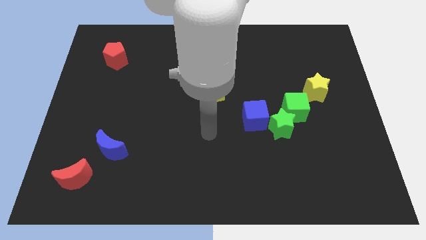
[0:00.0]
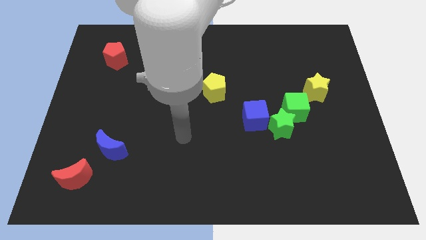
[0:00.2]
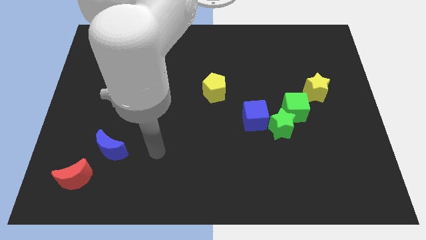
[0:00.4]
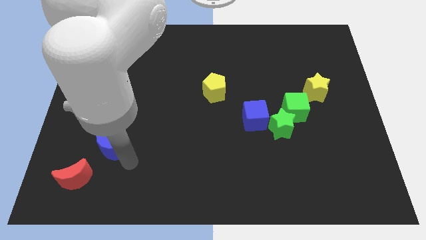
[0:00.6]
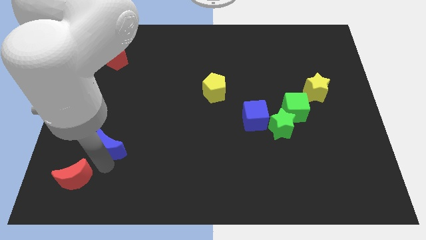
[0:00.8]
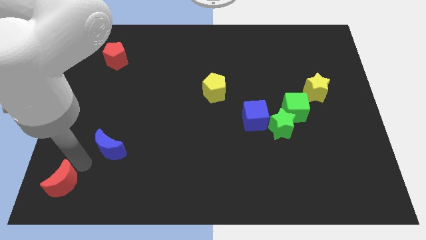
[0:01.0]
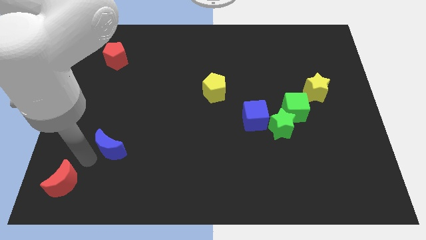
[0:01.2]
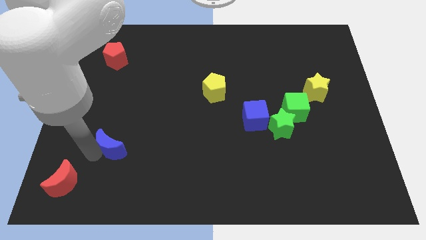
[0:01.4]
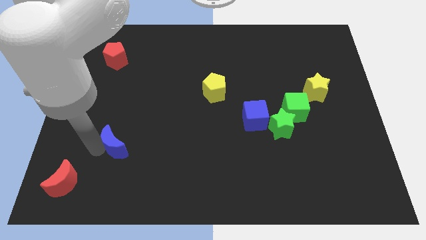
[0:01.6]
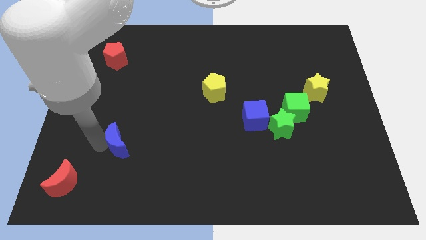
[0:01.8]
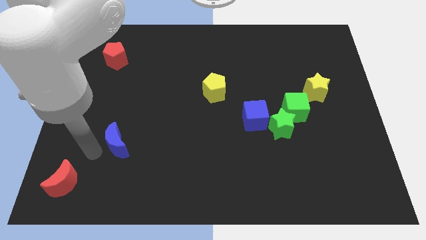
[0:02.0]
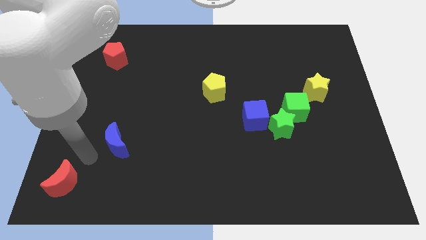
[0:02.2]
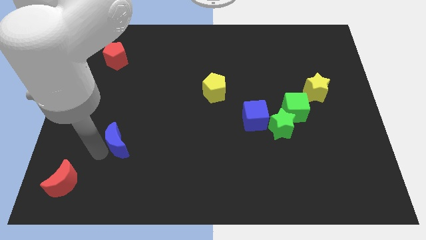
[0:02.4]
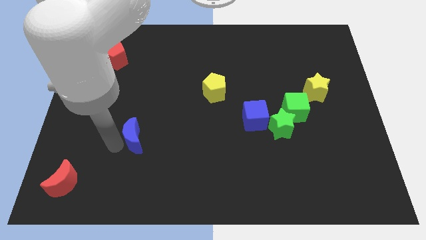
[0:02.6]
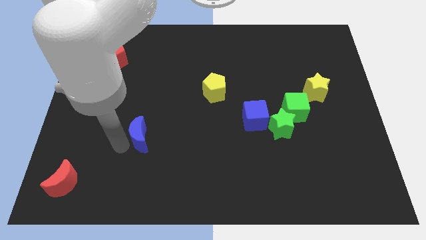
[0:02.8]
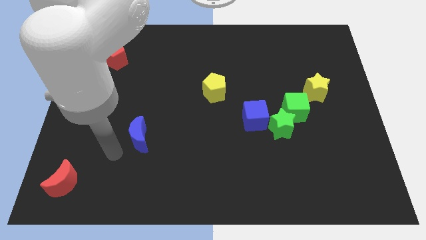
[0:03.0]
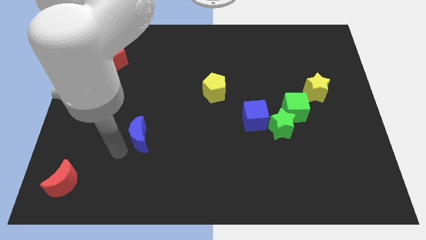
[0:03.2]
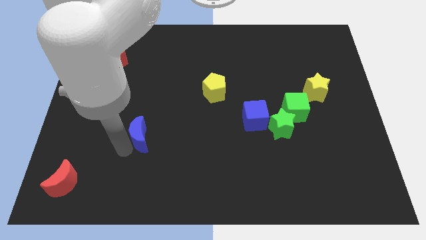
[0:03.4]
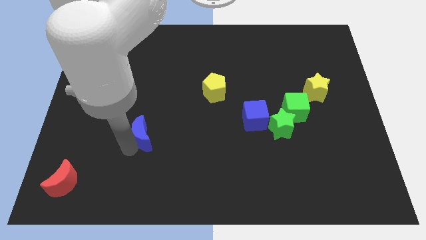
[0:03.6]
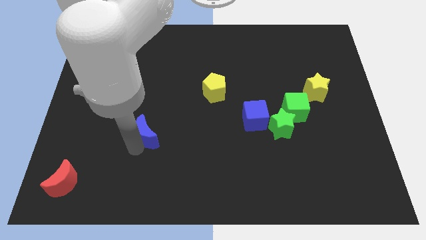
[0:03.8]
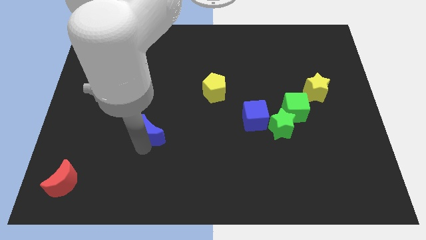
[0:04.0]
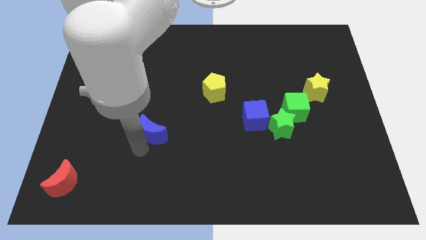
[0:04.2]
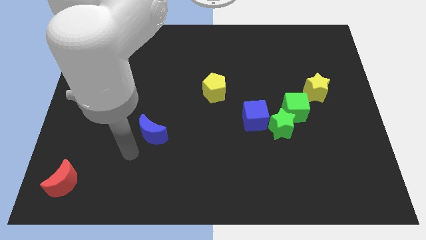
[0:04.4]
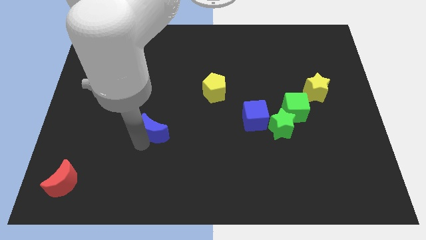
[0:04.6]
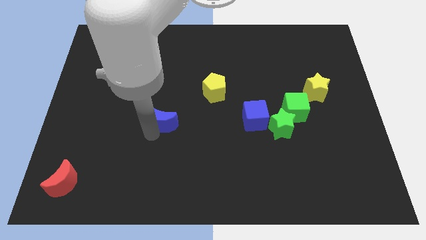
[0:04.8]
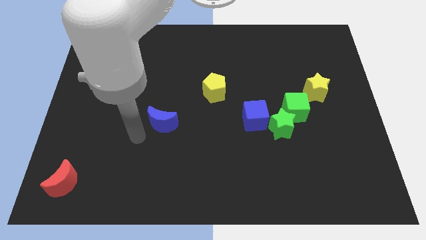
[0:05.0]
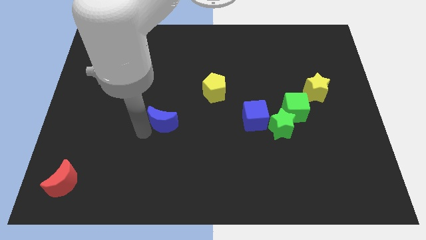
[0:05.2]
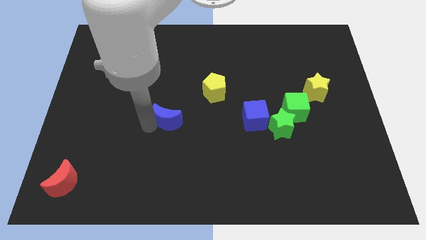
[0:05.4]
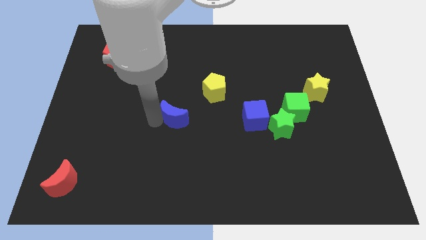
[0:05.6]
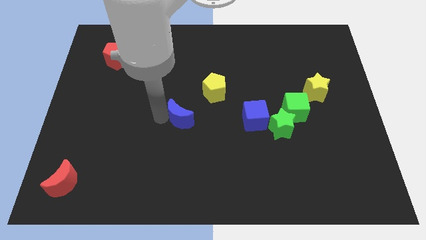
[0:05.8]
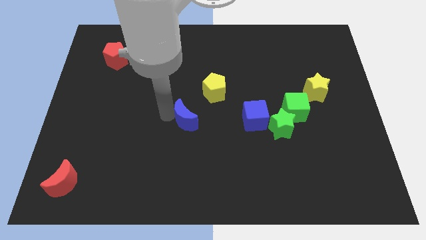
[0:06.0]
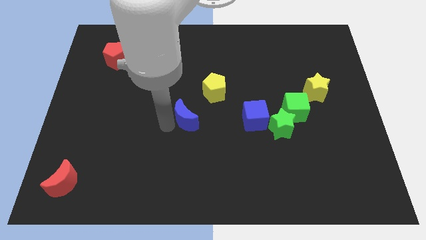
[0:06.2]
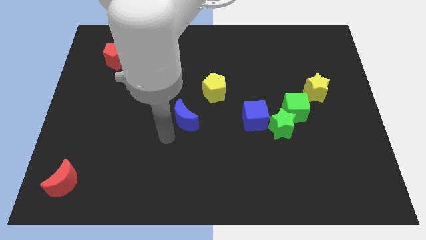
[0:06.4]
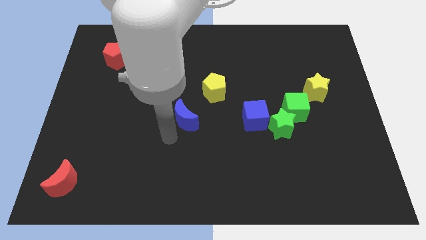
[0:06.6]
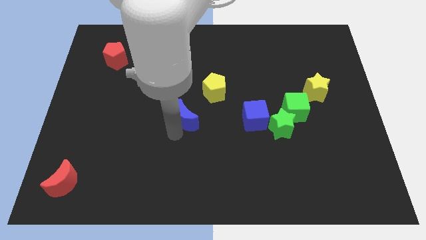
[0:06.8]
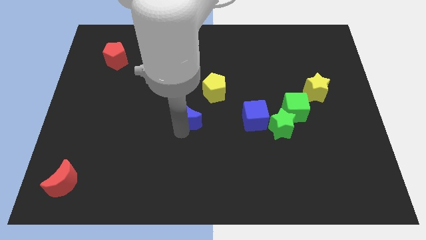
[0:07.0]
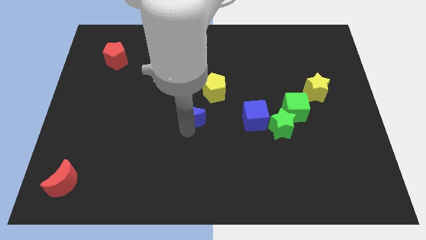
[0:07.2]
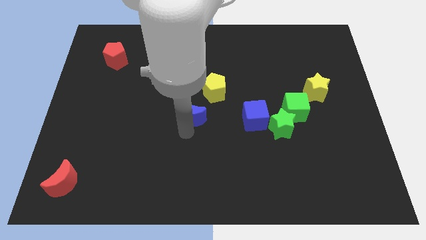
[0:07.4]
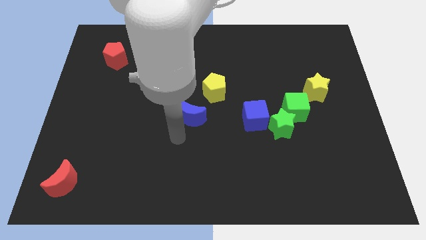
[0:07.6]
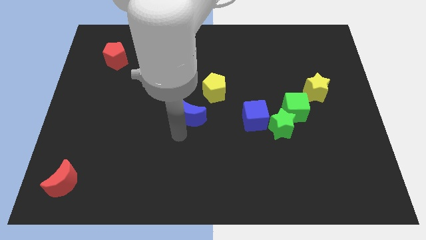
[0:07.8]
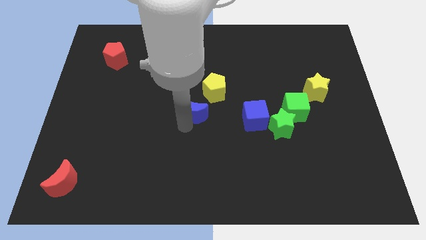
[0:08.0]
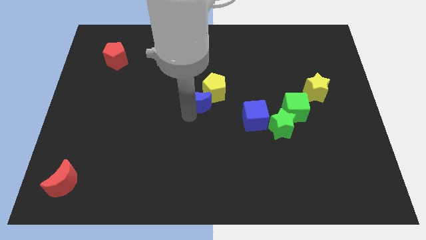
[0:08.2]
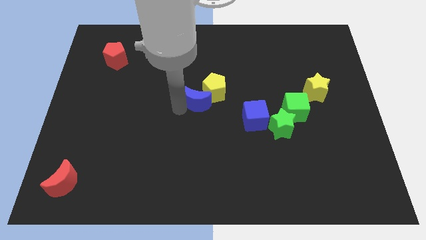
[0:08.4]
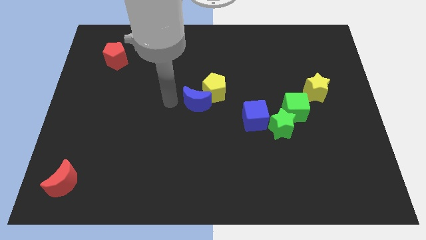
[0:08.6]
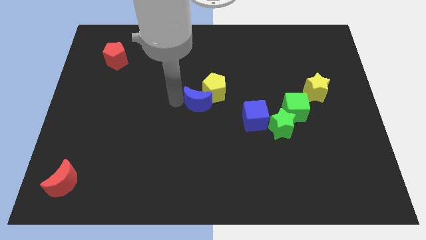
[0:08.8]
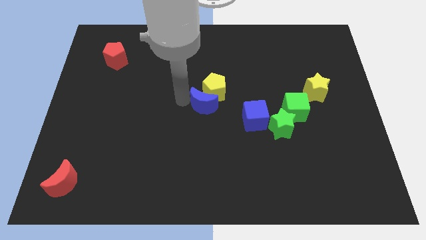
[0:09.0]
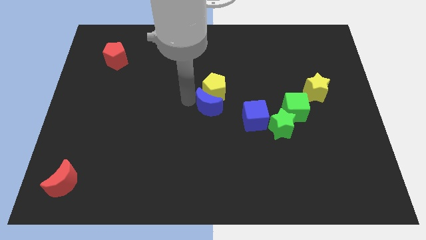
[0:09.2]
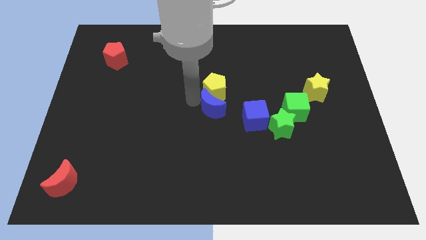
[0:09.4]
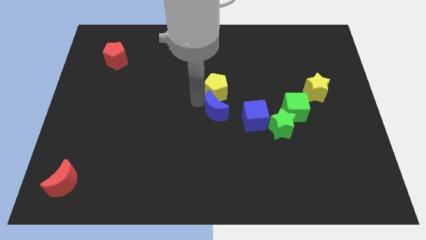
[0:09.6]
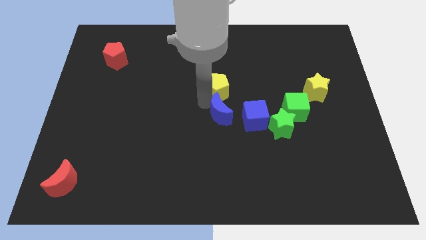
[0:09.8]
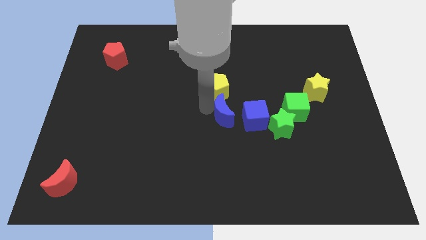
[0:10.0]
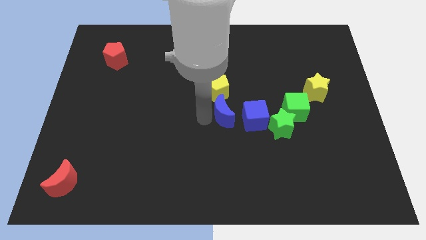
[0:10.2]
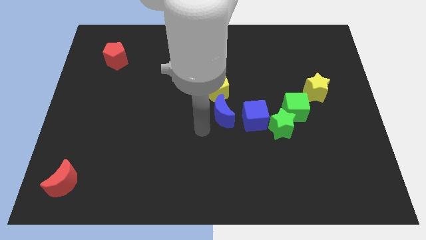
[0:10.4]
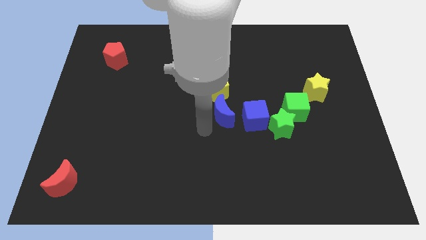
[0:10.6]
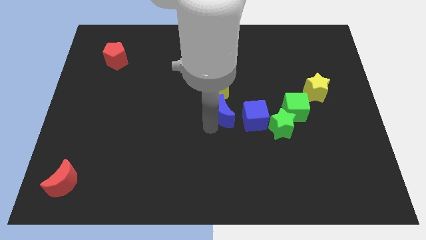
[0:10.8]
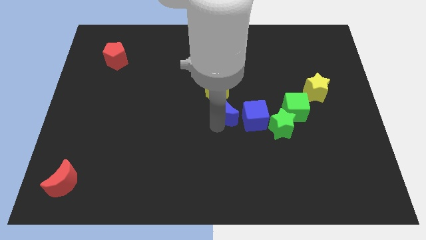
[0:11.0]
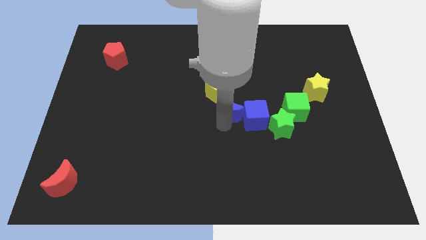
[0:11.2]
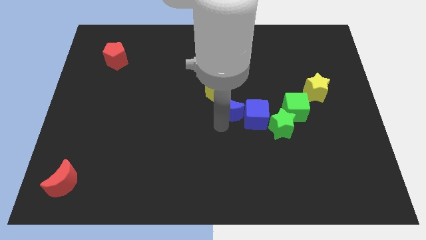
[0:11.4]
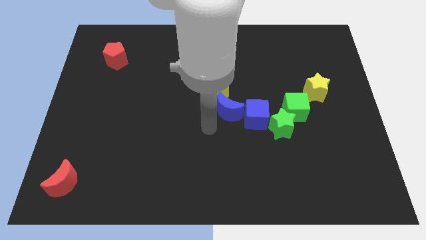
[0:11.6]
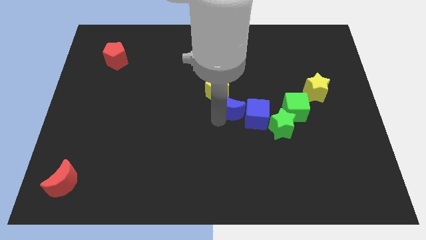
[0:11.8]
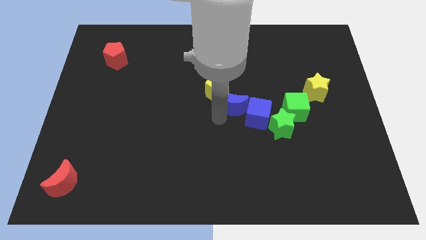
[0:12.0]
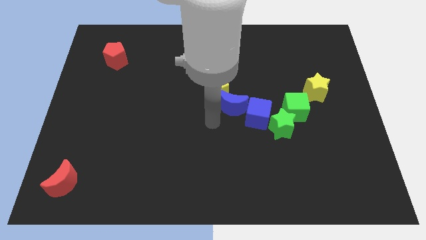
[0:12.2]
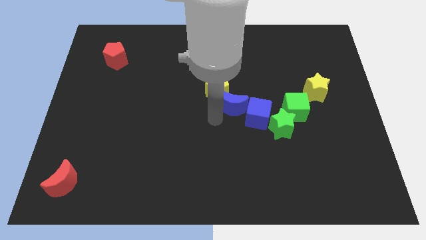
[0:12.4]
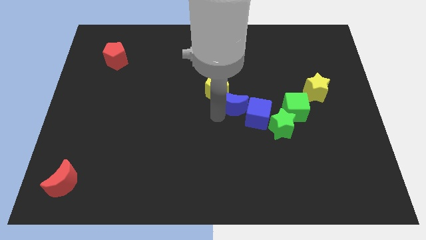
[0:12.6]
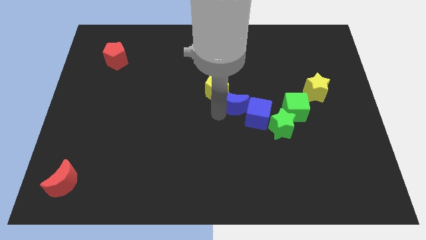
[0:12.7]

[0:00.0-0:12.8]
push the blue moon to the right of the yellow pentagon
